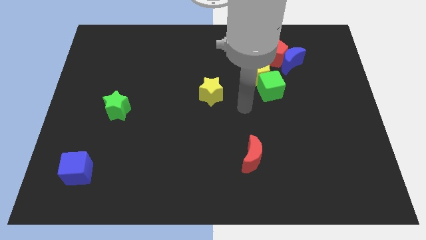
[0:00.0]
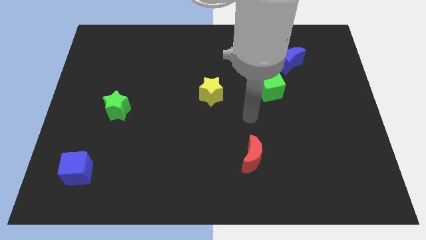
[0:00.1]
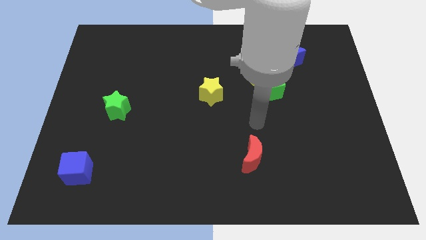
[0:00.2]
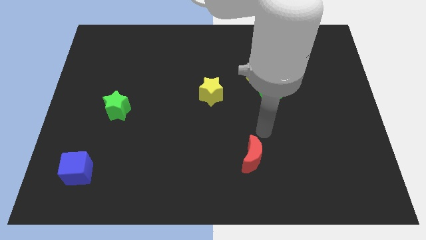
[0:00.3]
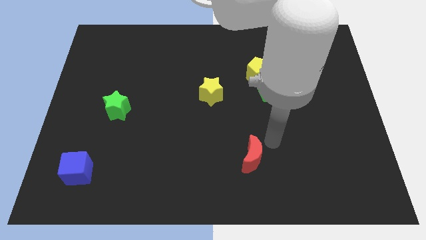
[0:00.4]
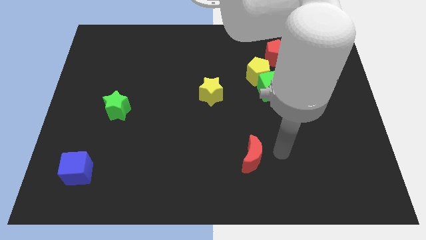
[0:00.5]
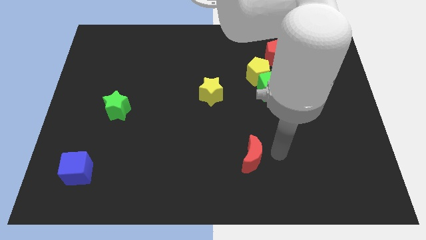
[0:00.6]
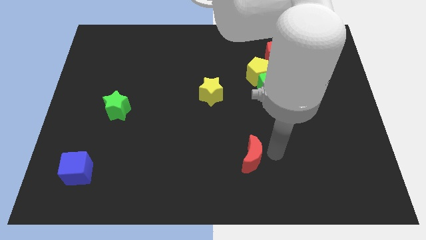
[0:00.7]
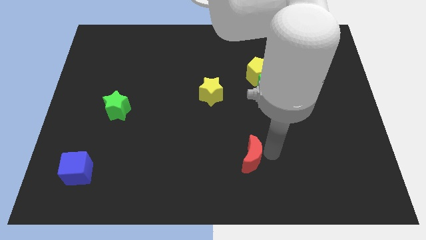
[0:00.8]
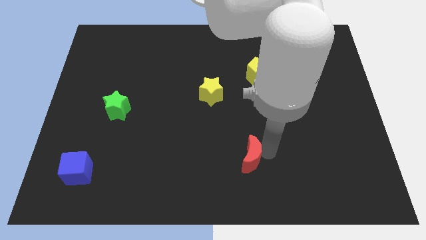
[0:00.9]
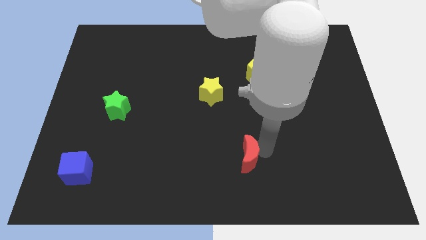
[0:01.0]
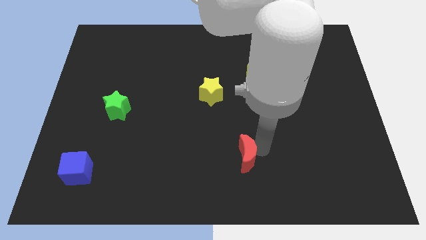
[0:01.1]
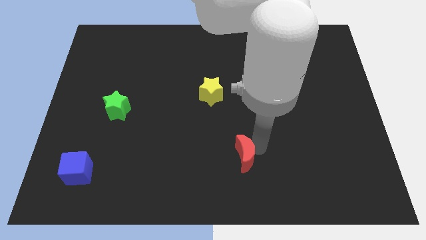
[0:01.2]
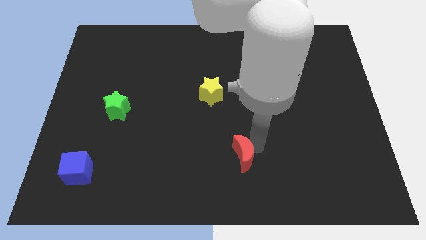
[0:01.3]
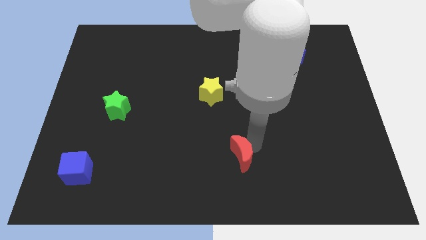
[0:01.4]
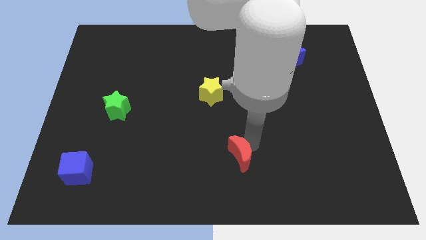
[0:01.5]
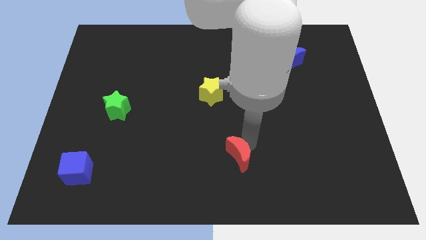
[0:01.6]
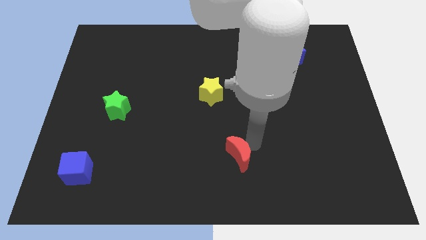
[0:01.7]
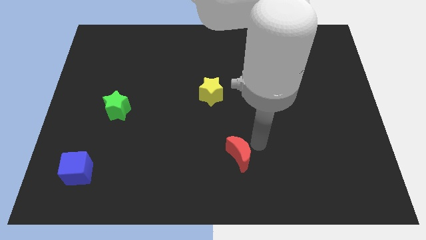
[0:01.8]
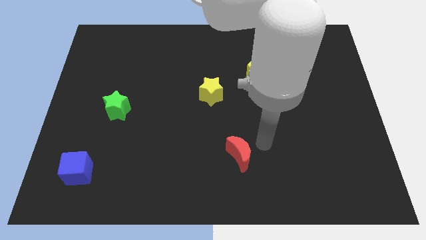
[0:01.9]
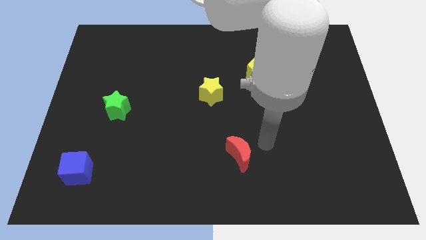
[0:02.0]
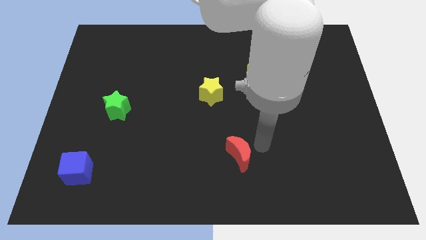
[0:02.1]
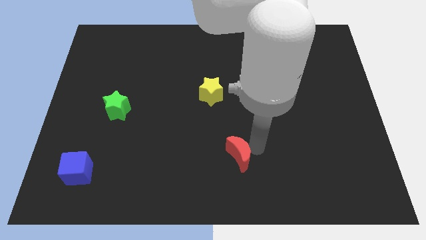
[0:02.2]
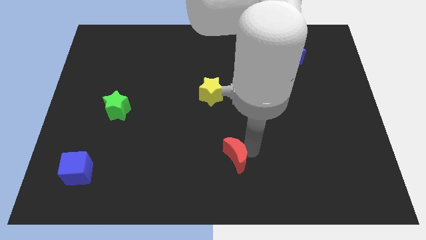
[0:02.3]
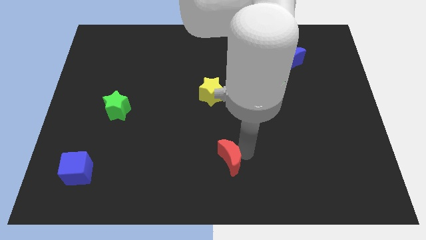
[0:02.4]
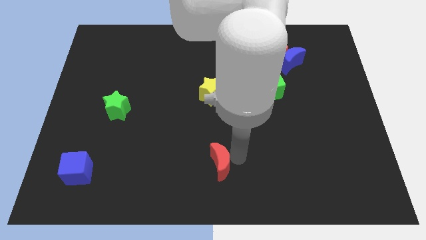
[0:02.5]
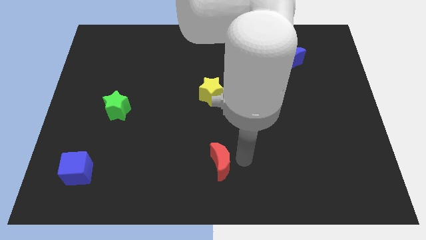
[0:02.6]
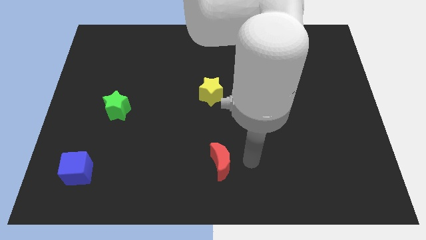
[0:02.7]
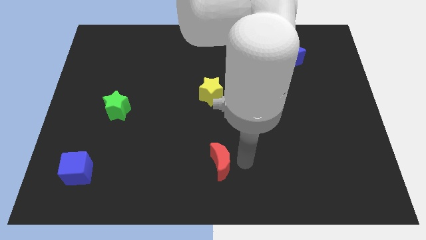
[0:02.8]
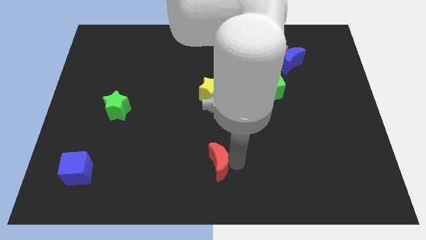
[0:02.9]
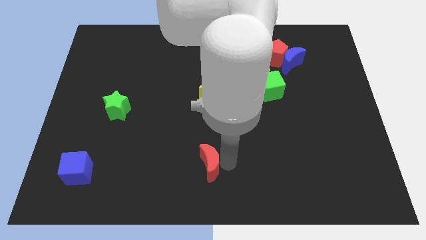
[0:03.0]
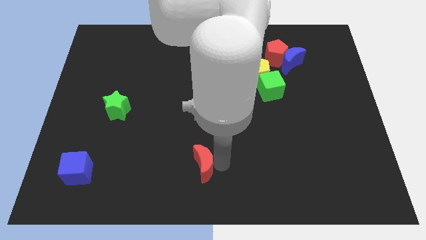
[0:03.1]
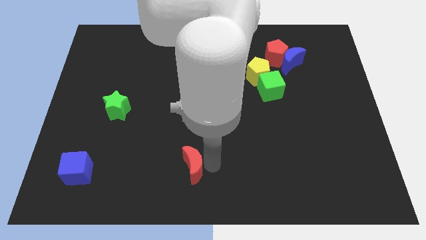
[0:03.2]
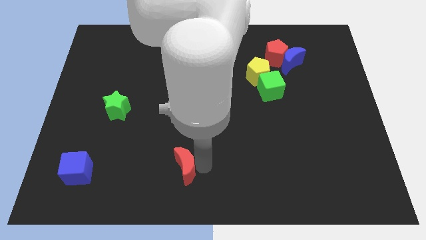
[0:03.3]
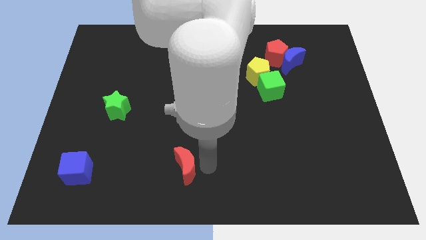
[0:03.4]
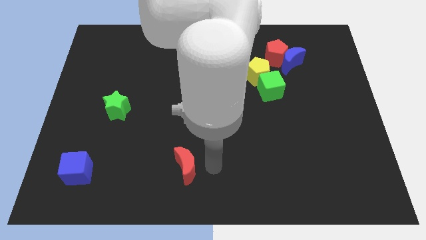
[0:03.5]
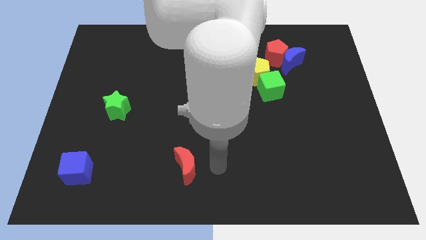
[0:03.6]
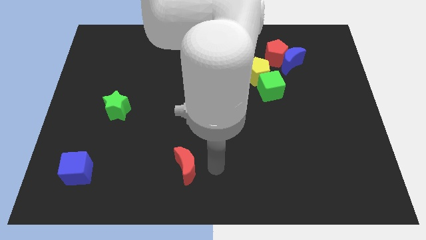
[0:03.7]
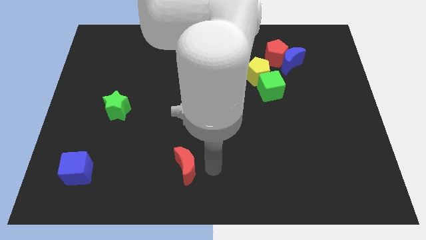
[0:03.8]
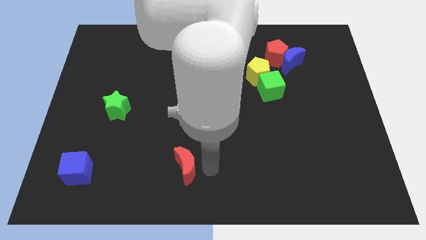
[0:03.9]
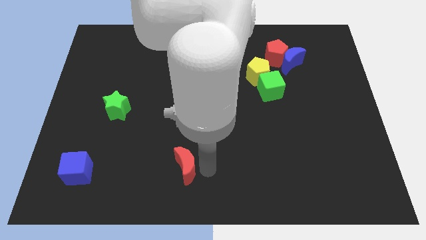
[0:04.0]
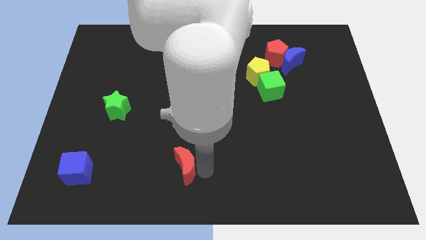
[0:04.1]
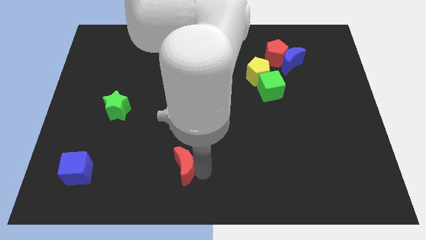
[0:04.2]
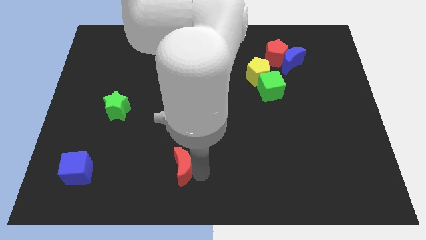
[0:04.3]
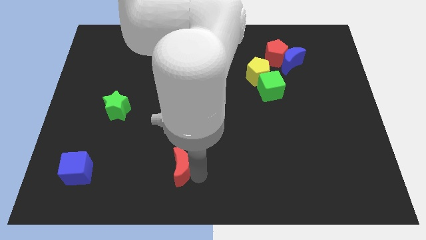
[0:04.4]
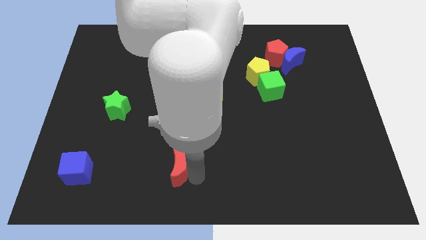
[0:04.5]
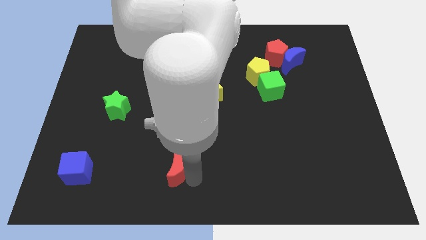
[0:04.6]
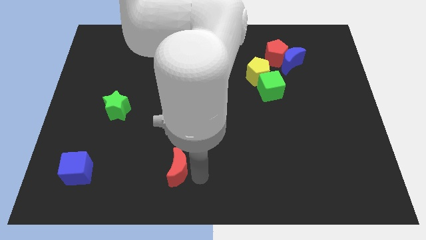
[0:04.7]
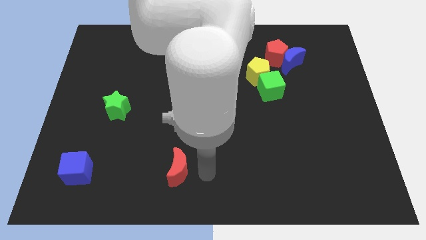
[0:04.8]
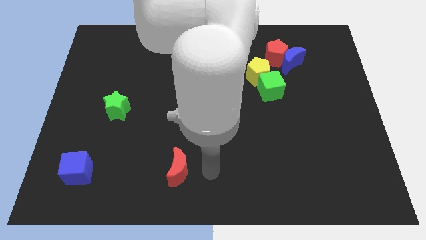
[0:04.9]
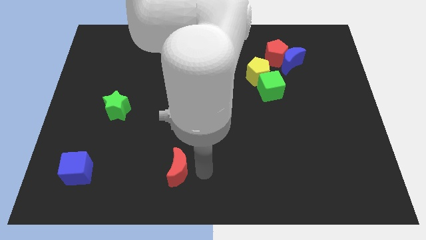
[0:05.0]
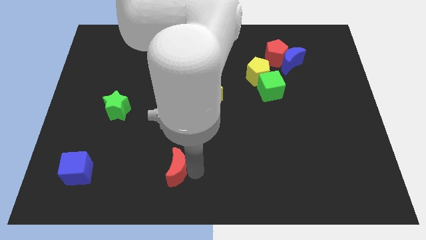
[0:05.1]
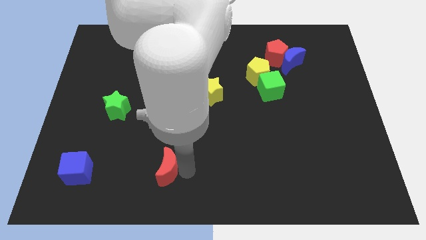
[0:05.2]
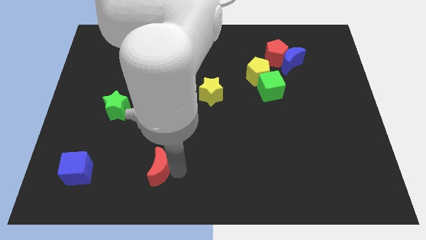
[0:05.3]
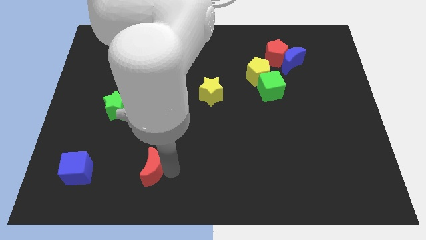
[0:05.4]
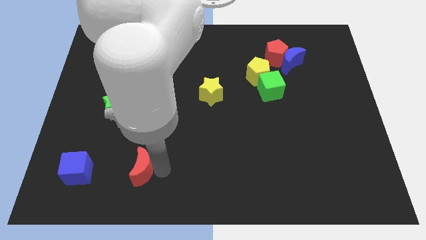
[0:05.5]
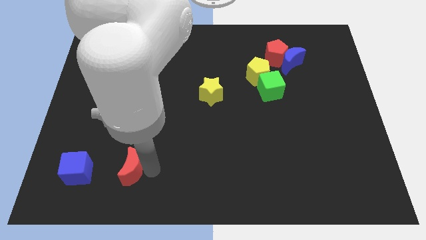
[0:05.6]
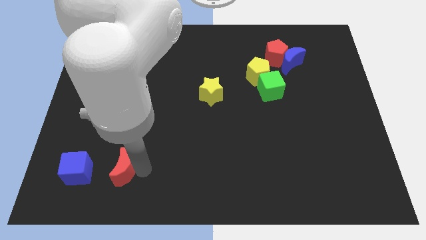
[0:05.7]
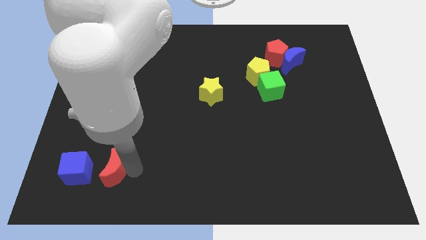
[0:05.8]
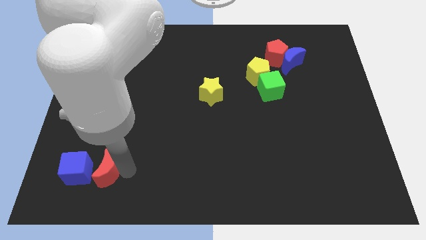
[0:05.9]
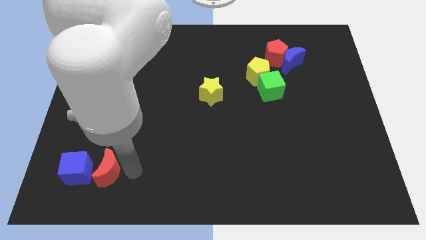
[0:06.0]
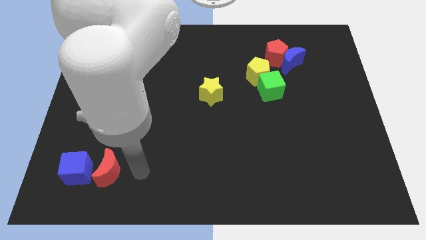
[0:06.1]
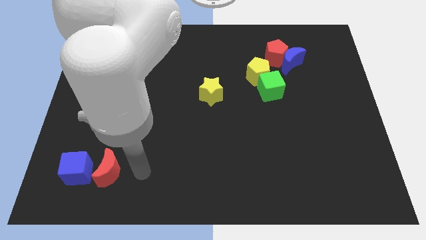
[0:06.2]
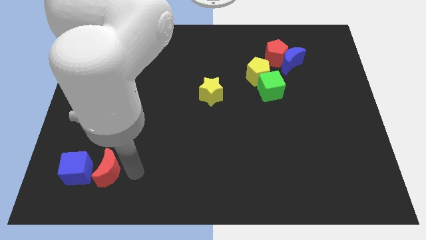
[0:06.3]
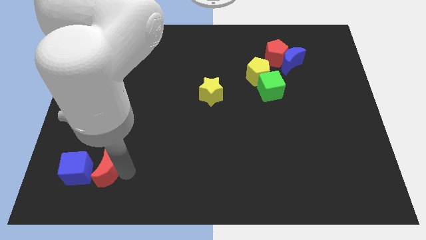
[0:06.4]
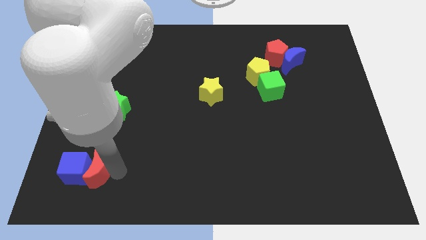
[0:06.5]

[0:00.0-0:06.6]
push the red moon towards the blue cube
